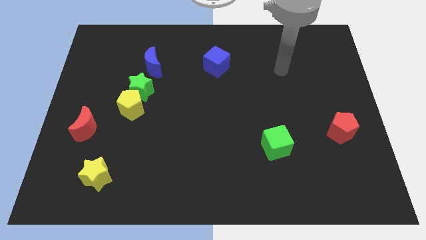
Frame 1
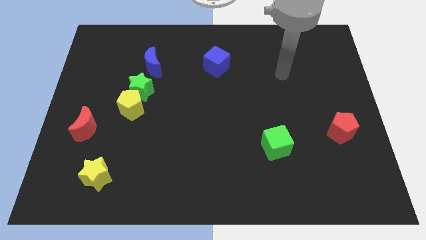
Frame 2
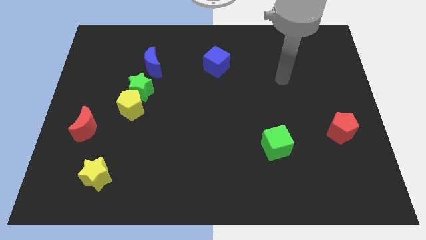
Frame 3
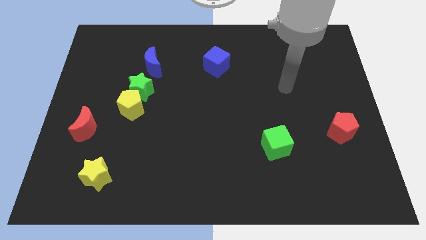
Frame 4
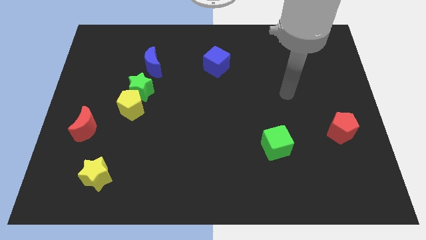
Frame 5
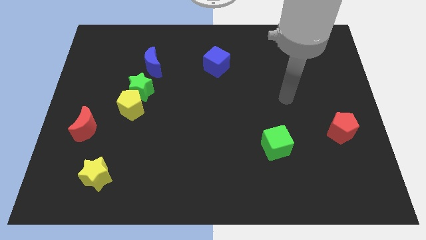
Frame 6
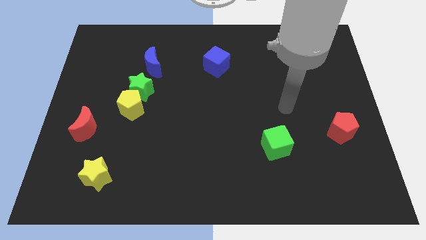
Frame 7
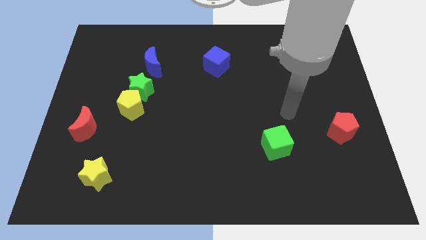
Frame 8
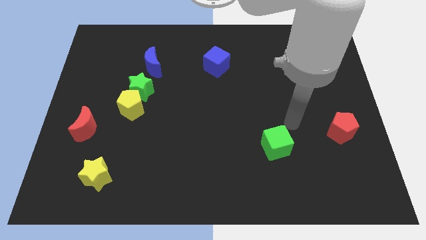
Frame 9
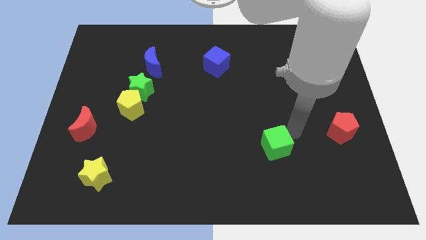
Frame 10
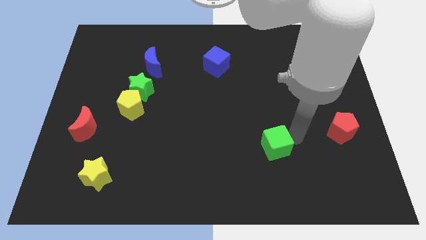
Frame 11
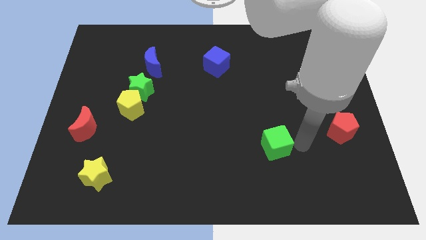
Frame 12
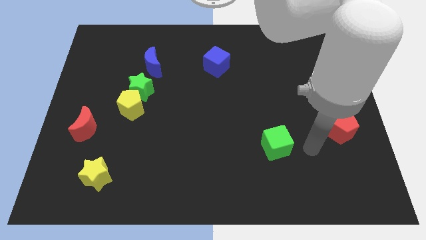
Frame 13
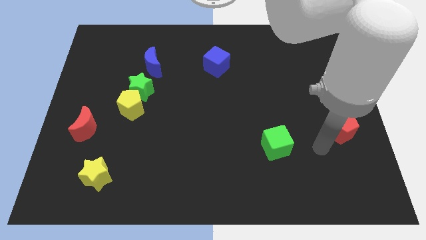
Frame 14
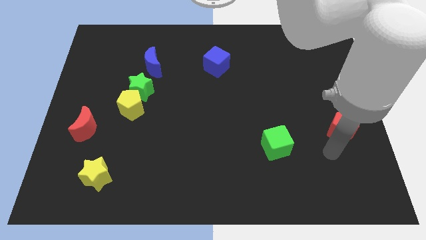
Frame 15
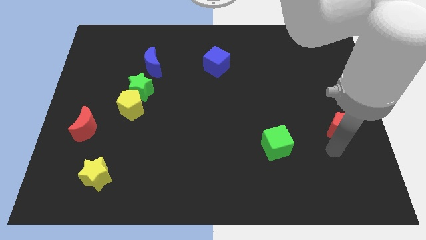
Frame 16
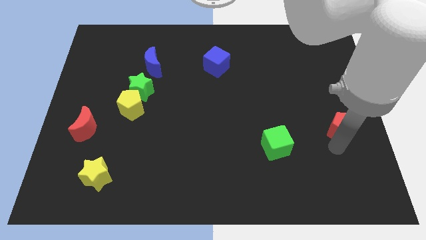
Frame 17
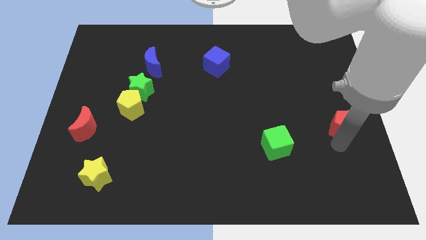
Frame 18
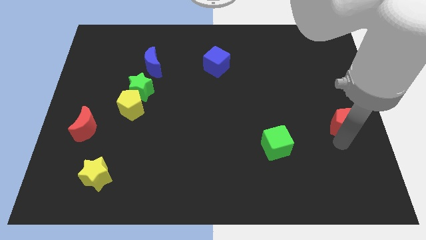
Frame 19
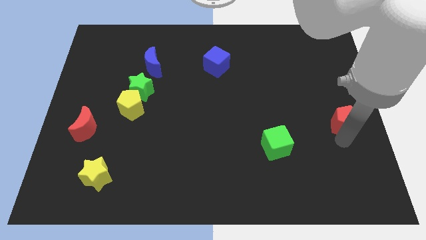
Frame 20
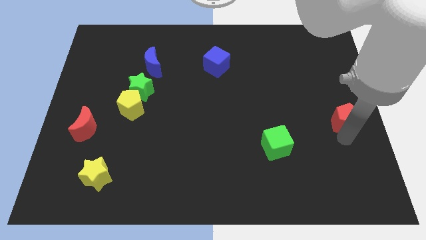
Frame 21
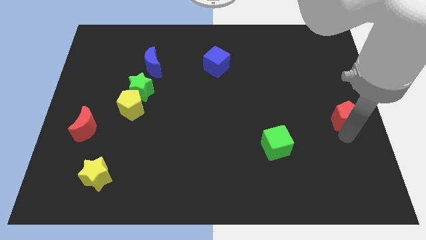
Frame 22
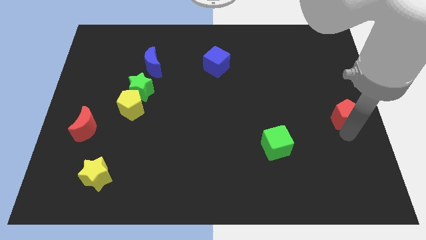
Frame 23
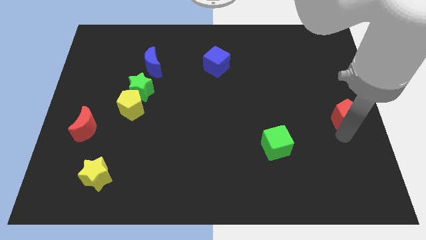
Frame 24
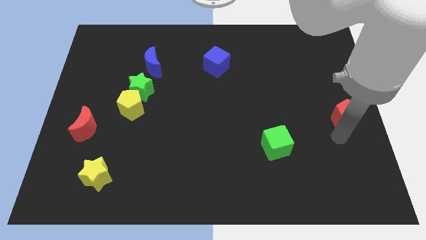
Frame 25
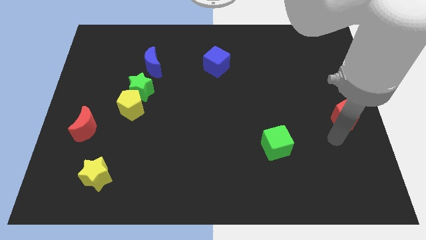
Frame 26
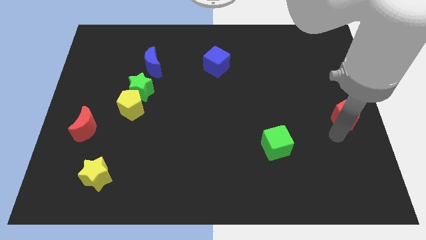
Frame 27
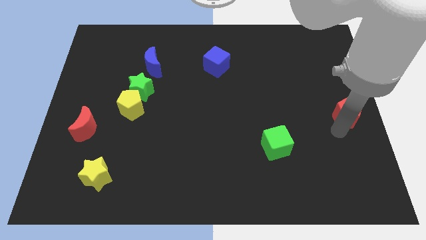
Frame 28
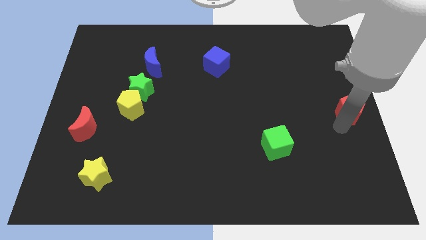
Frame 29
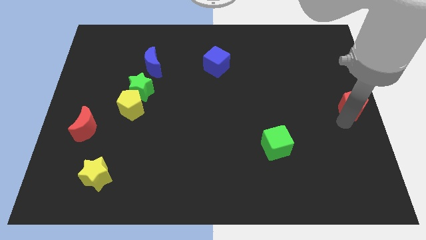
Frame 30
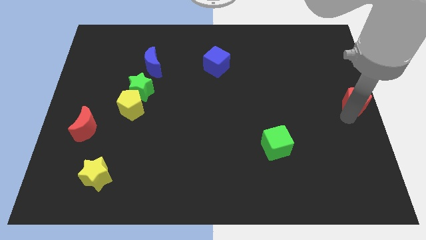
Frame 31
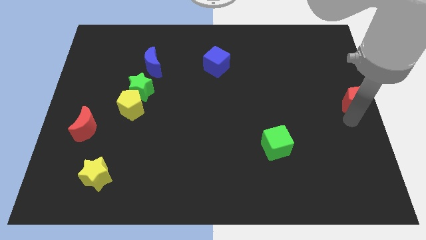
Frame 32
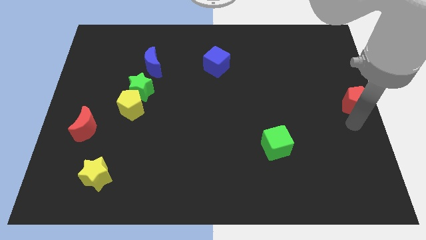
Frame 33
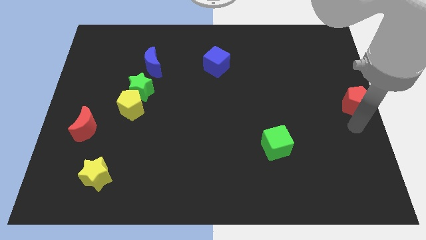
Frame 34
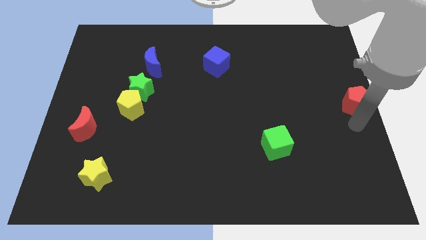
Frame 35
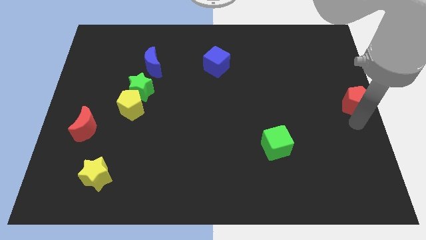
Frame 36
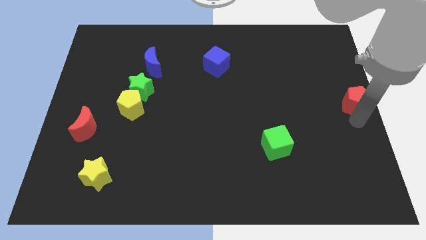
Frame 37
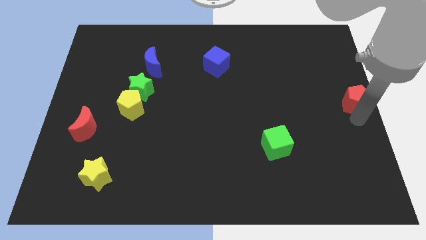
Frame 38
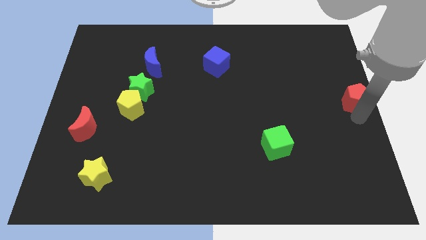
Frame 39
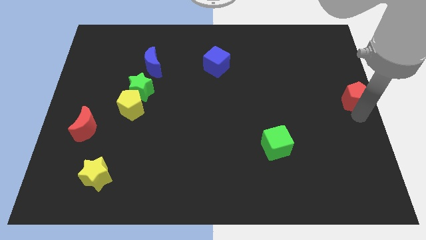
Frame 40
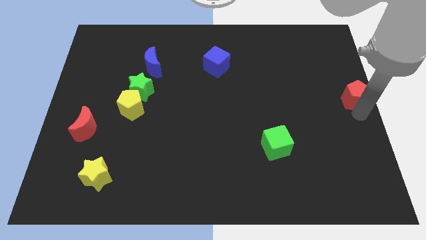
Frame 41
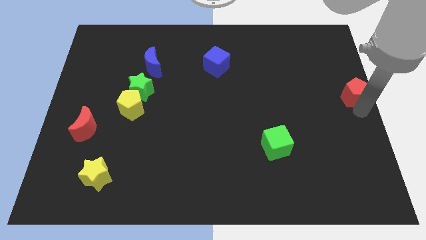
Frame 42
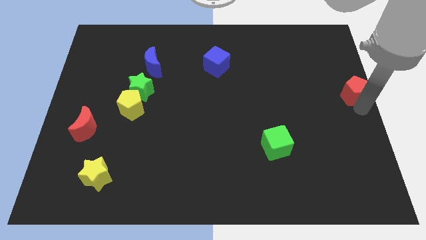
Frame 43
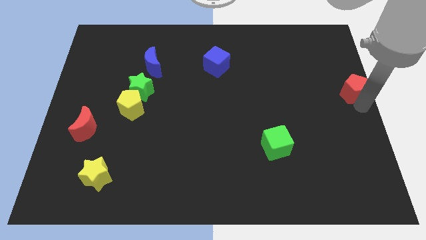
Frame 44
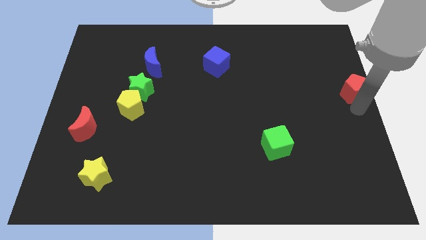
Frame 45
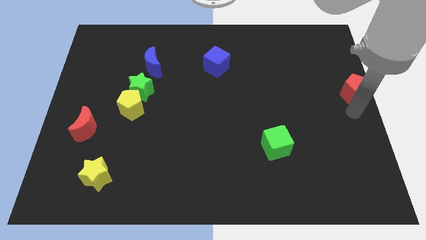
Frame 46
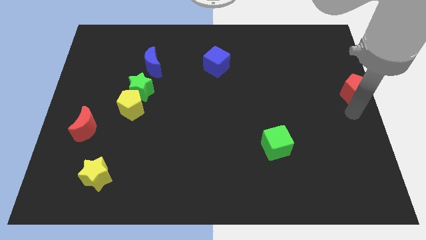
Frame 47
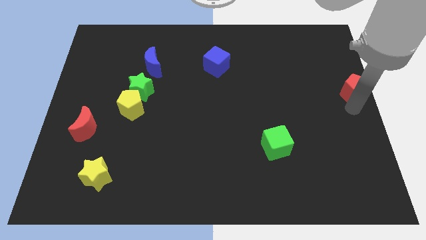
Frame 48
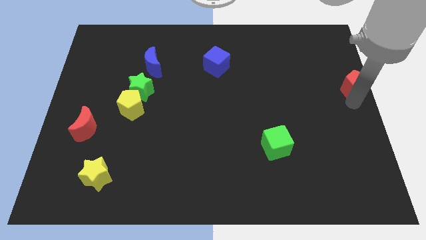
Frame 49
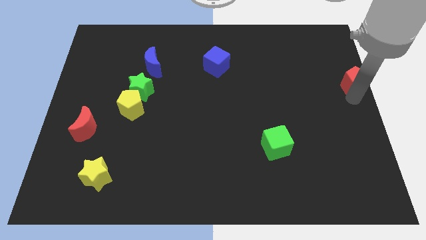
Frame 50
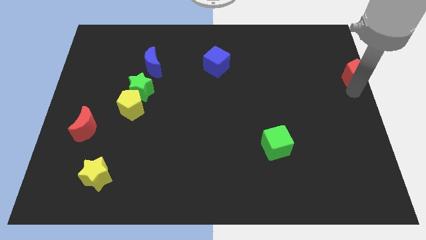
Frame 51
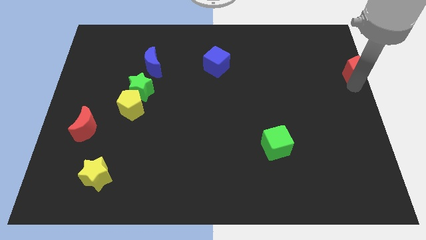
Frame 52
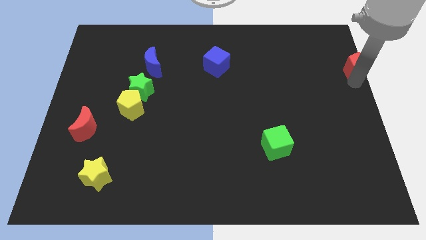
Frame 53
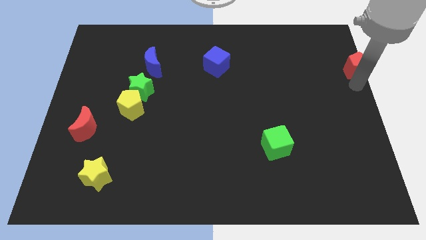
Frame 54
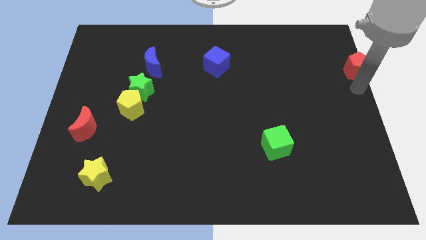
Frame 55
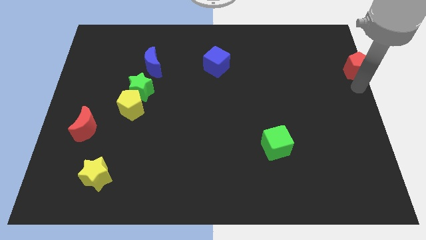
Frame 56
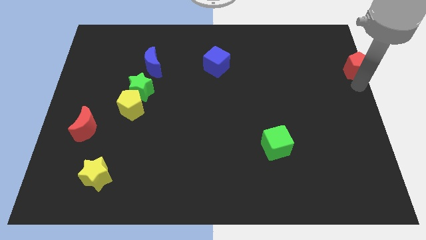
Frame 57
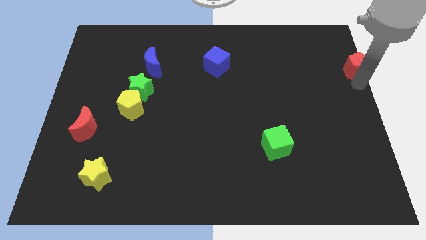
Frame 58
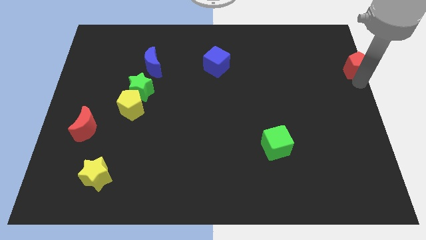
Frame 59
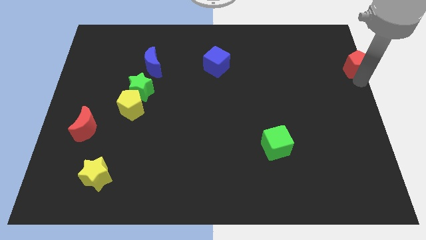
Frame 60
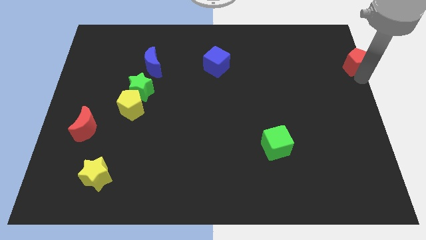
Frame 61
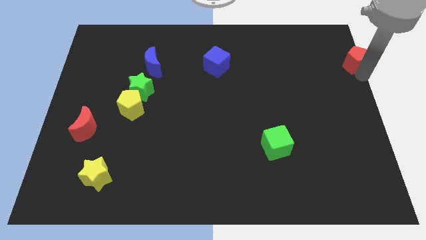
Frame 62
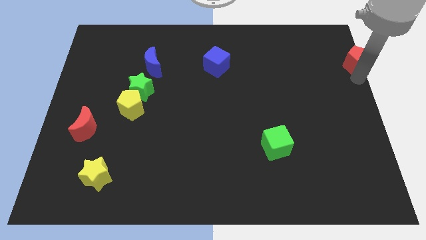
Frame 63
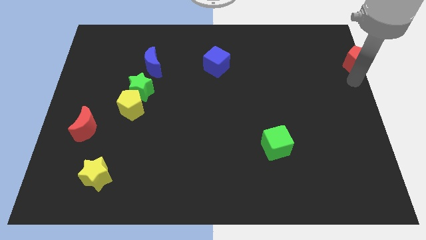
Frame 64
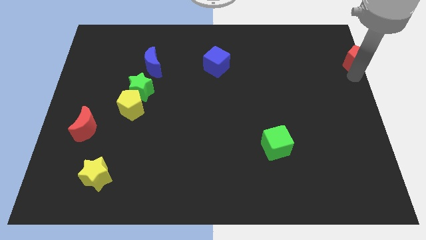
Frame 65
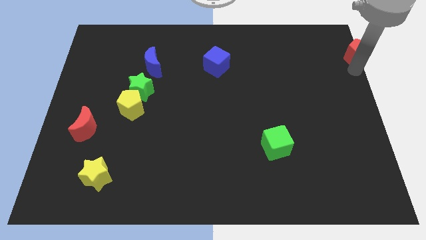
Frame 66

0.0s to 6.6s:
push the red pentagon to the top right corner
